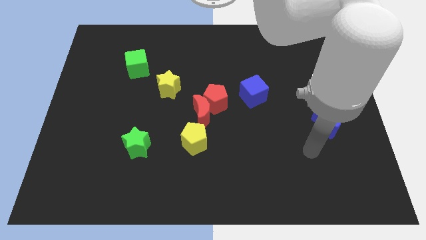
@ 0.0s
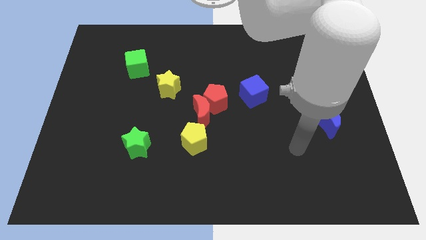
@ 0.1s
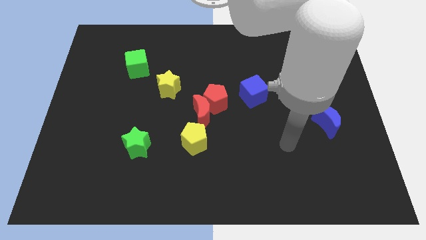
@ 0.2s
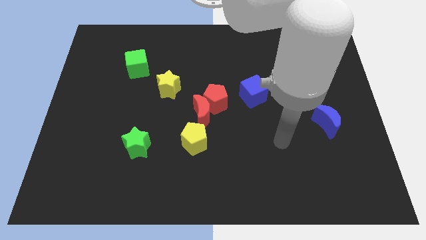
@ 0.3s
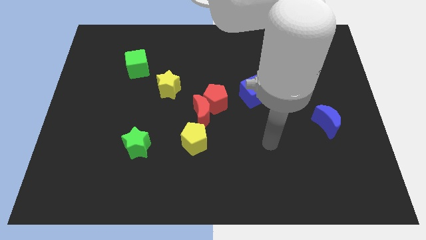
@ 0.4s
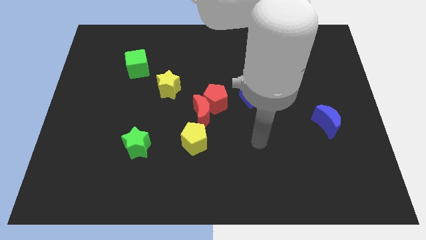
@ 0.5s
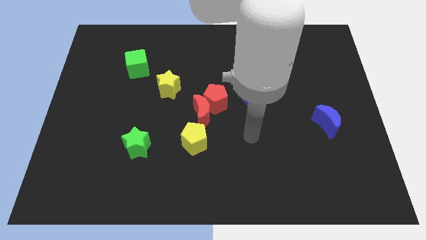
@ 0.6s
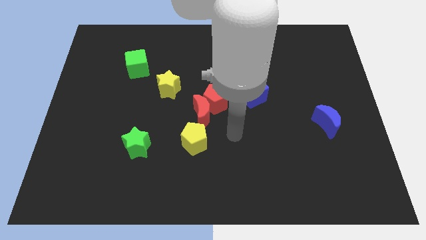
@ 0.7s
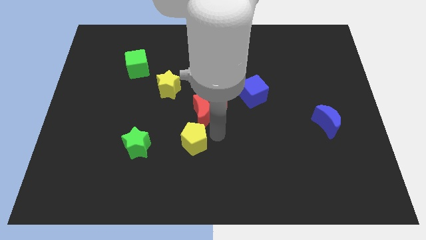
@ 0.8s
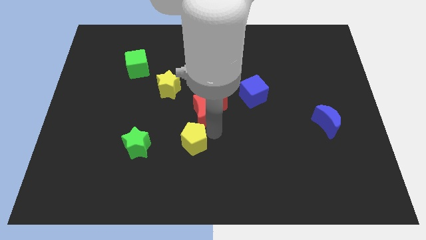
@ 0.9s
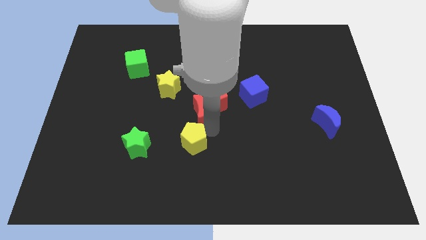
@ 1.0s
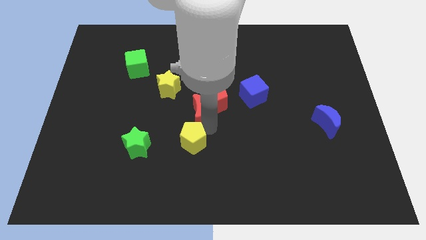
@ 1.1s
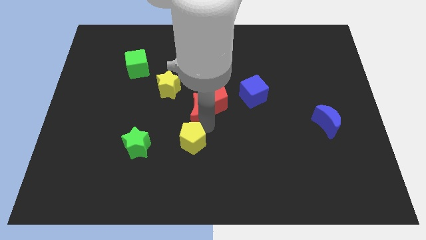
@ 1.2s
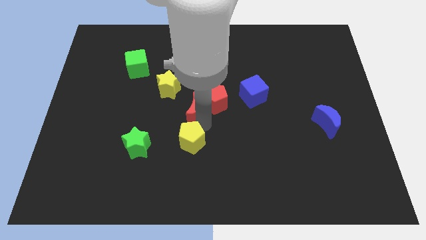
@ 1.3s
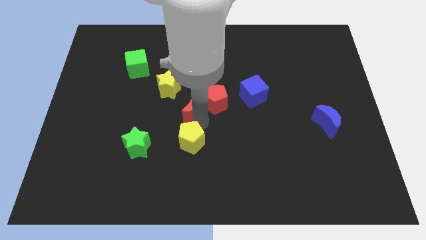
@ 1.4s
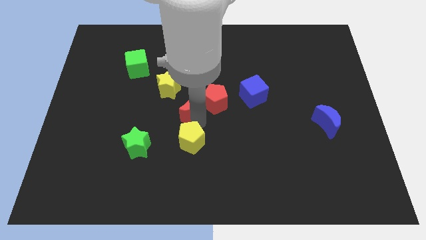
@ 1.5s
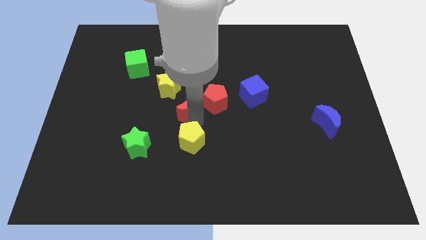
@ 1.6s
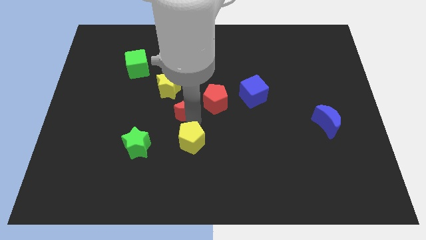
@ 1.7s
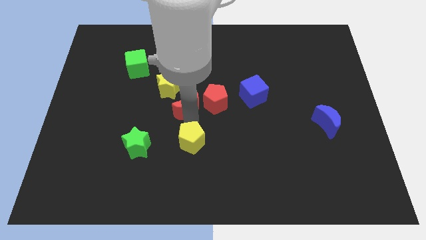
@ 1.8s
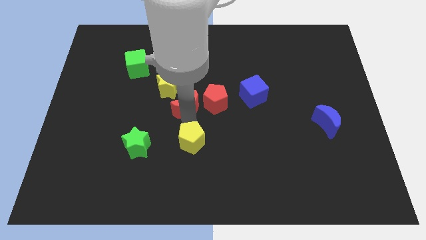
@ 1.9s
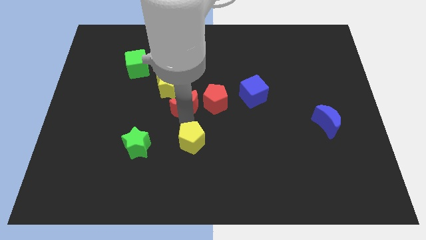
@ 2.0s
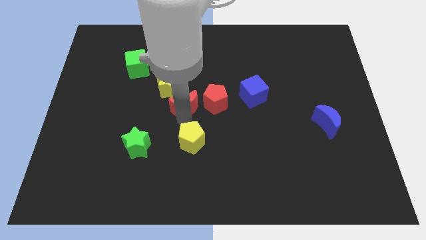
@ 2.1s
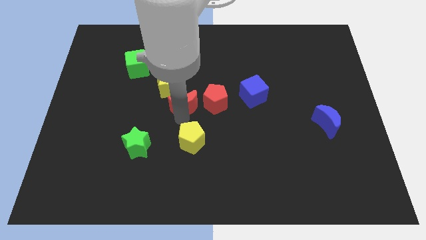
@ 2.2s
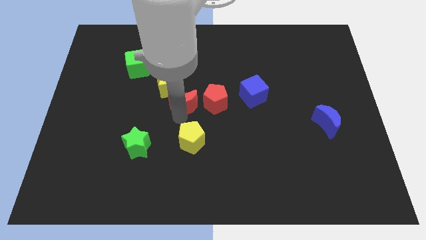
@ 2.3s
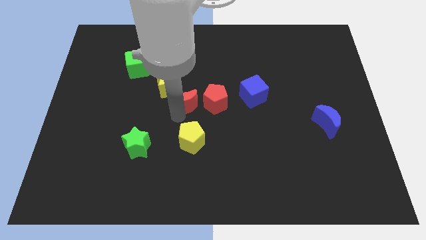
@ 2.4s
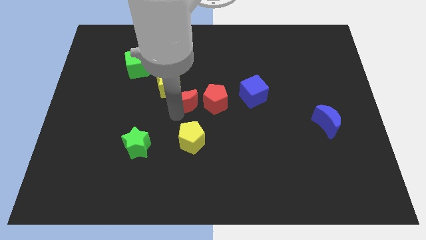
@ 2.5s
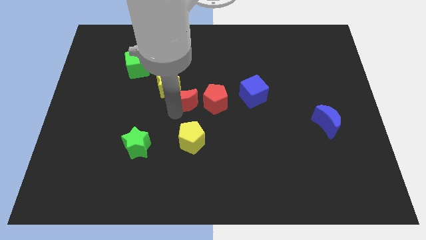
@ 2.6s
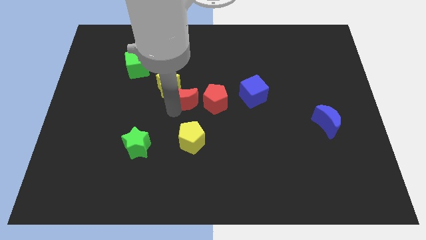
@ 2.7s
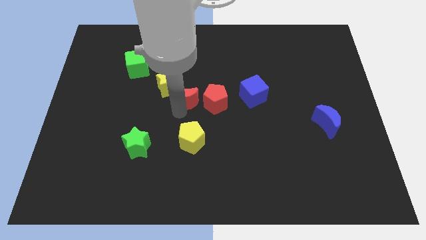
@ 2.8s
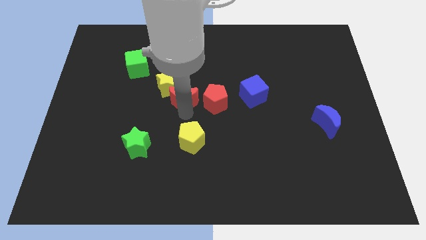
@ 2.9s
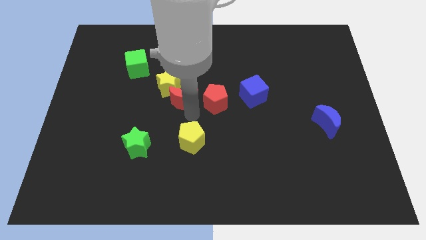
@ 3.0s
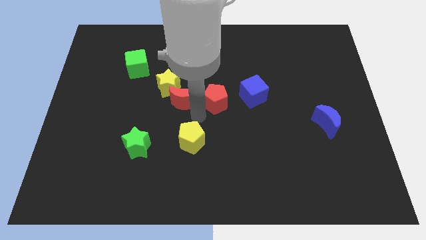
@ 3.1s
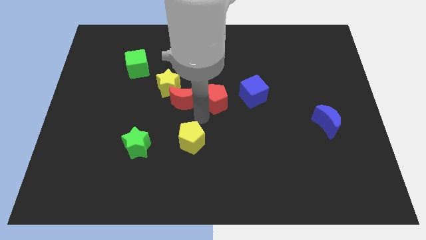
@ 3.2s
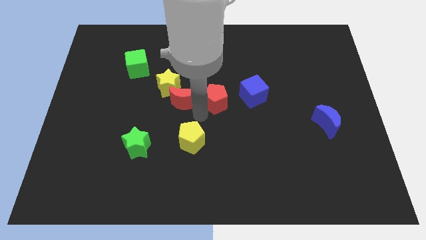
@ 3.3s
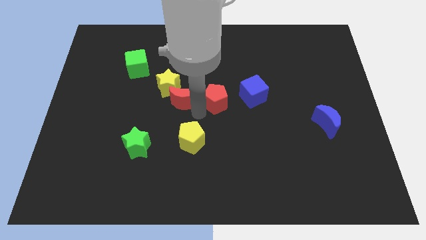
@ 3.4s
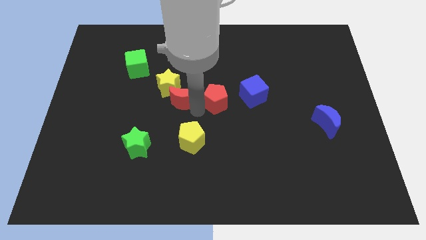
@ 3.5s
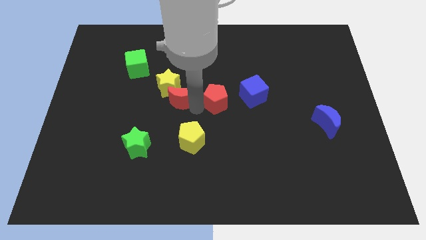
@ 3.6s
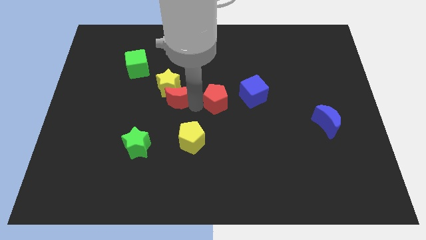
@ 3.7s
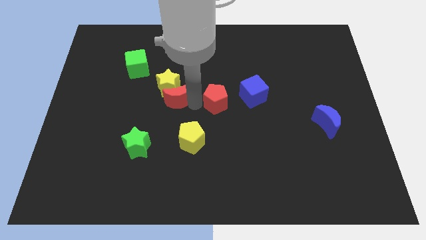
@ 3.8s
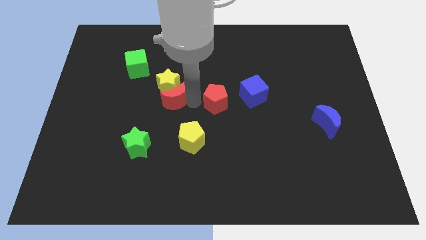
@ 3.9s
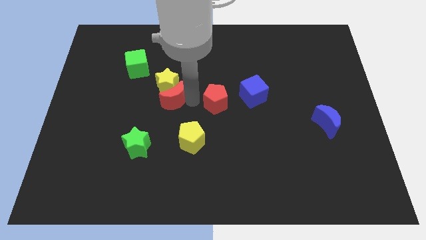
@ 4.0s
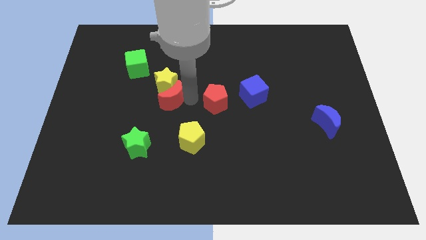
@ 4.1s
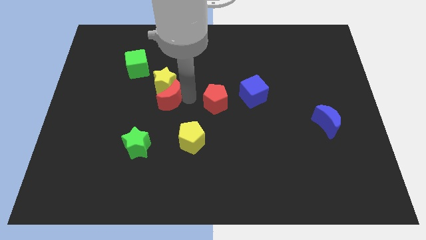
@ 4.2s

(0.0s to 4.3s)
move the red moon away from the red pentagon and yellow pentagon

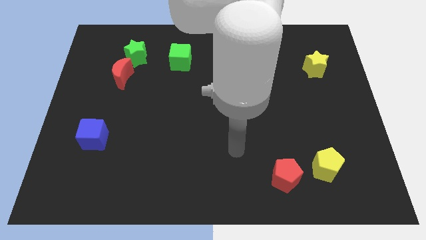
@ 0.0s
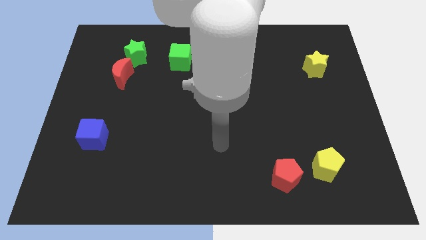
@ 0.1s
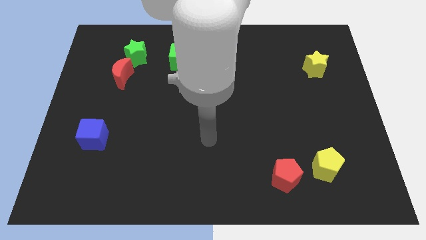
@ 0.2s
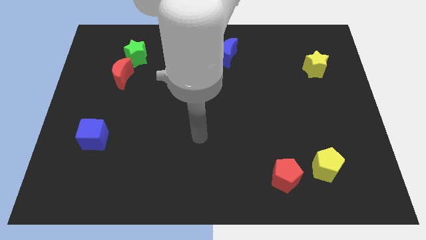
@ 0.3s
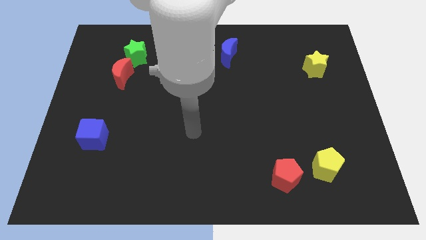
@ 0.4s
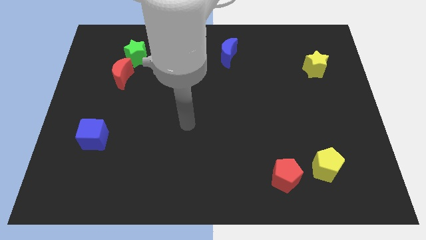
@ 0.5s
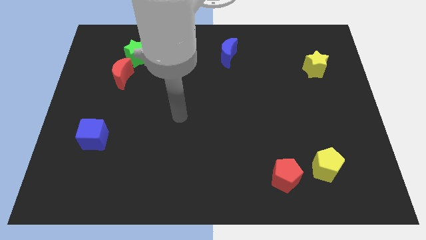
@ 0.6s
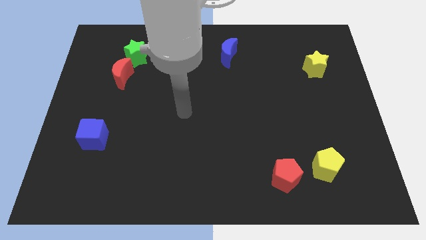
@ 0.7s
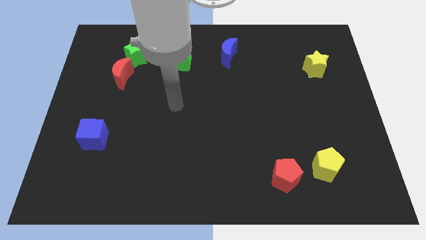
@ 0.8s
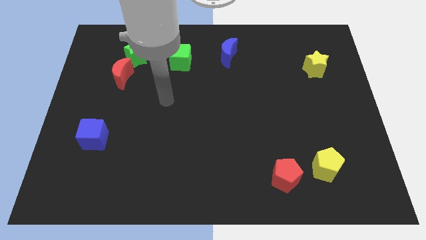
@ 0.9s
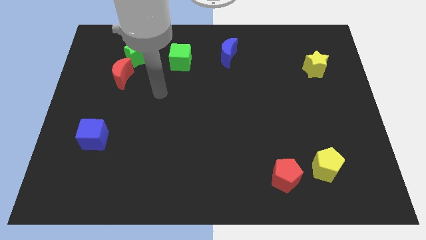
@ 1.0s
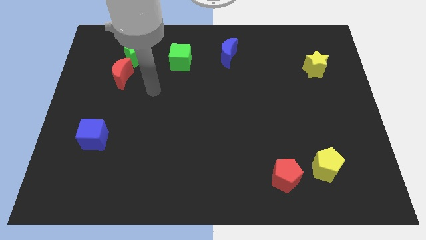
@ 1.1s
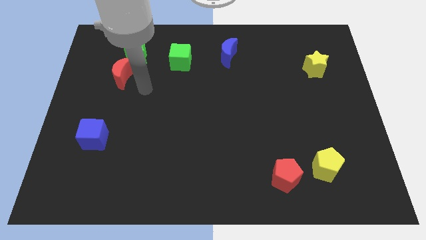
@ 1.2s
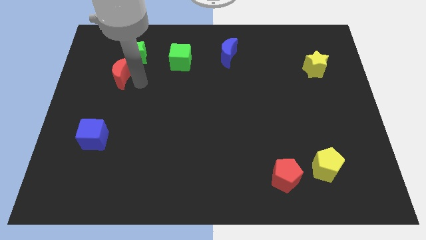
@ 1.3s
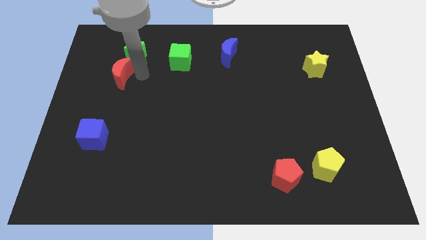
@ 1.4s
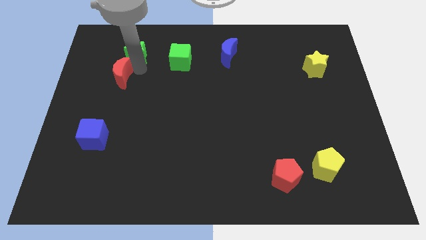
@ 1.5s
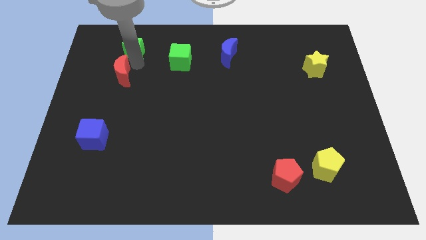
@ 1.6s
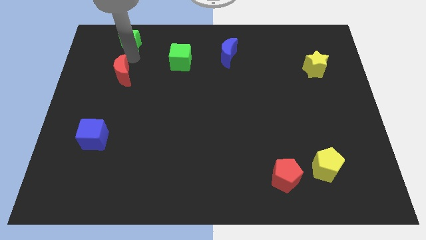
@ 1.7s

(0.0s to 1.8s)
move the red moon away from the green star

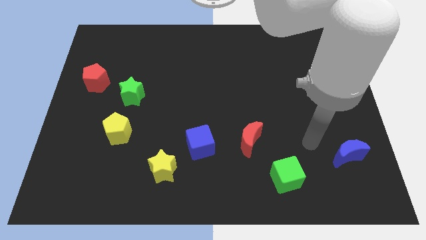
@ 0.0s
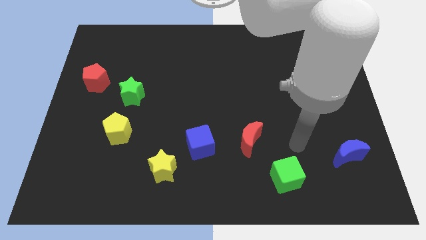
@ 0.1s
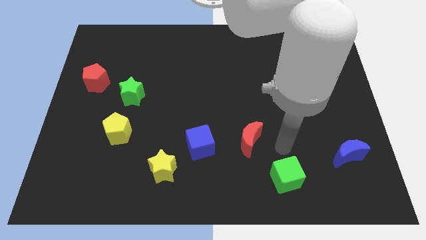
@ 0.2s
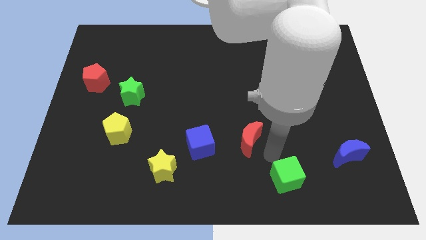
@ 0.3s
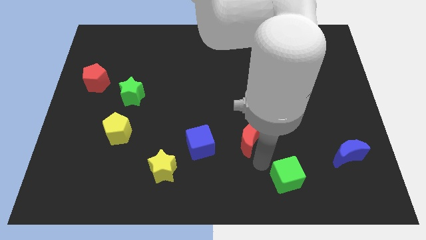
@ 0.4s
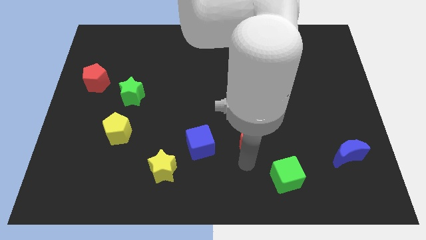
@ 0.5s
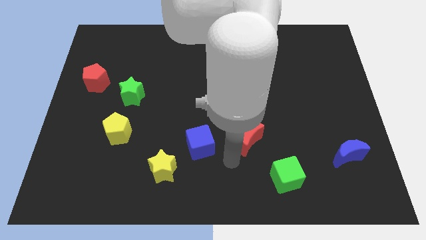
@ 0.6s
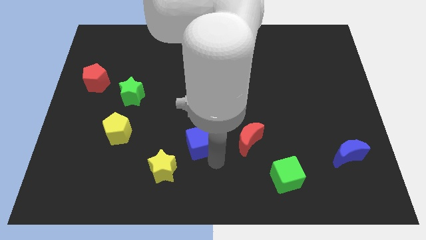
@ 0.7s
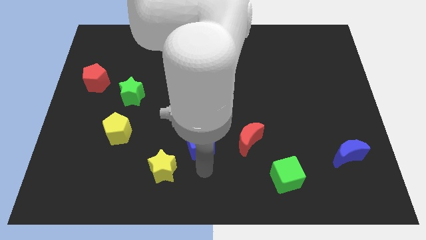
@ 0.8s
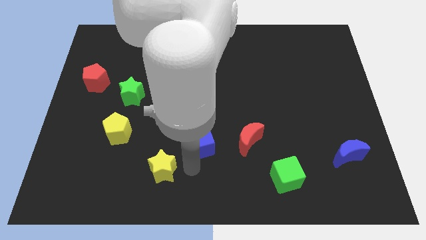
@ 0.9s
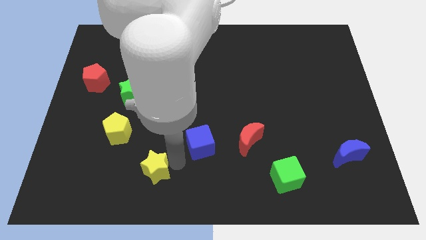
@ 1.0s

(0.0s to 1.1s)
separate the blue cube from the yellow star

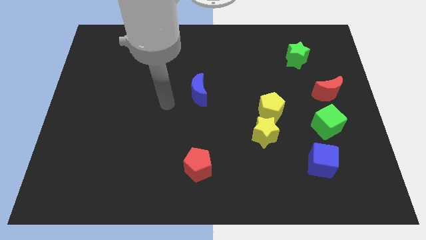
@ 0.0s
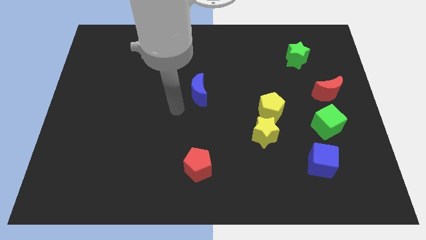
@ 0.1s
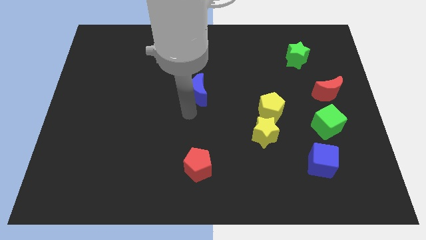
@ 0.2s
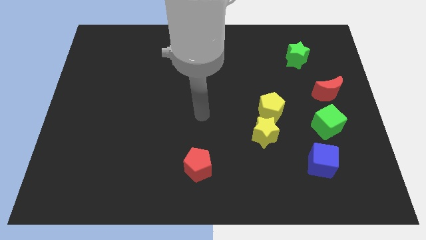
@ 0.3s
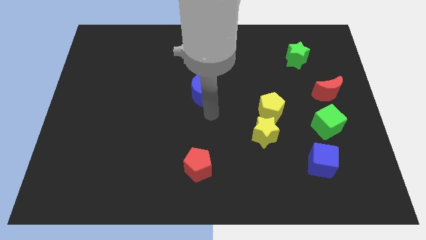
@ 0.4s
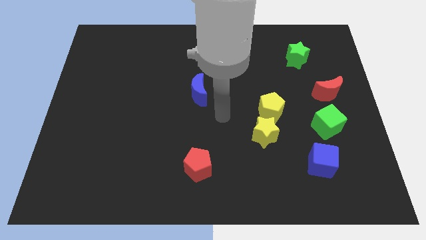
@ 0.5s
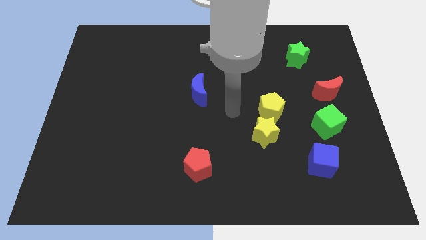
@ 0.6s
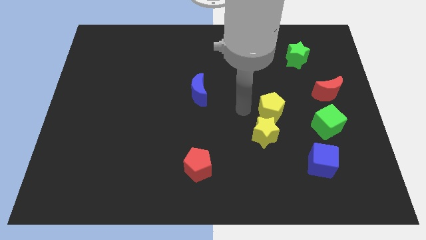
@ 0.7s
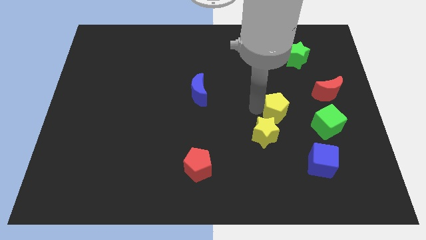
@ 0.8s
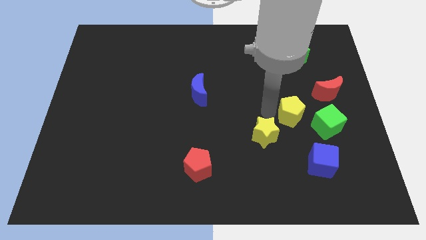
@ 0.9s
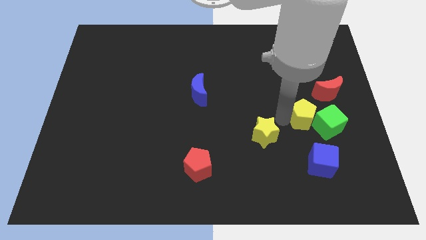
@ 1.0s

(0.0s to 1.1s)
move the yellow star away from the yellow pentagon

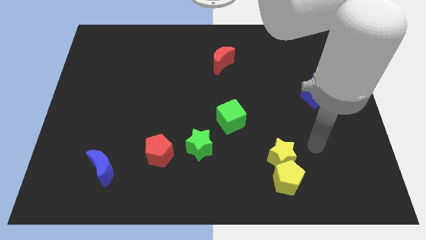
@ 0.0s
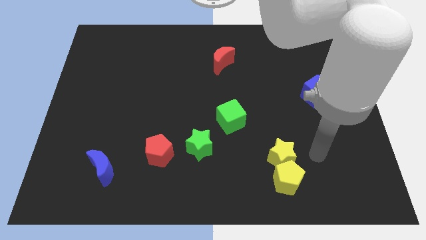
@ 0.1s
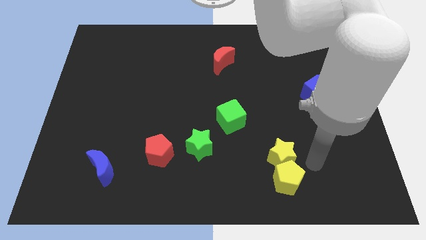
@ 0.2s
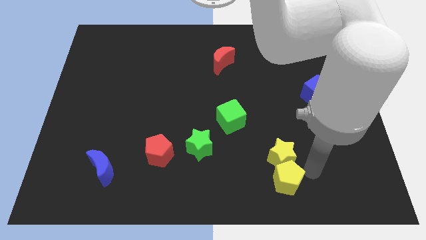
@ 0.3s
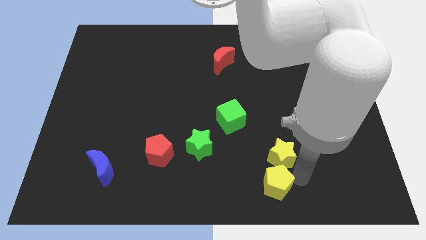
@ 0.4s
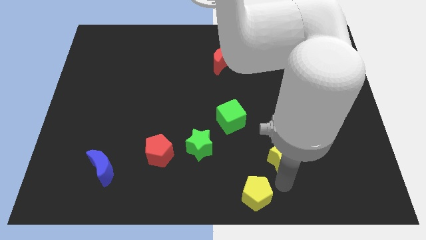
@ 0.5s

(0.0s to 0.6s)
separate the yellow star from the yellow pentagon

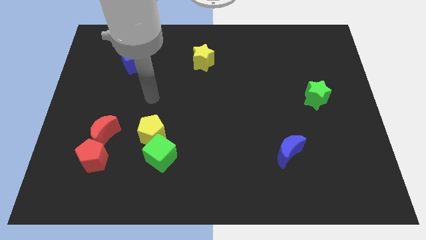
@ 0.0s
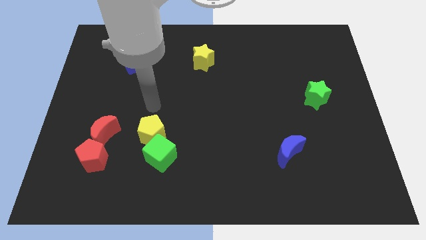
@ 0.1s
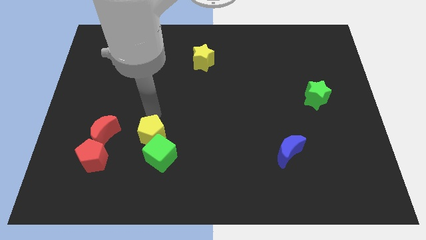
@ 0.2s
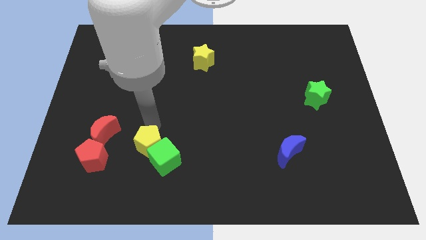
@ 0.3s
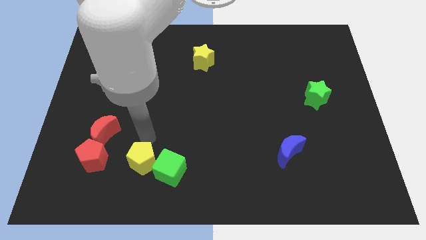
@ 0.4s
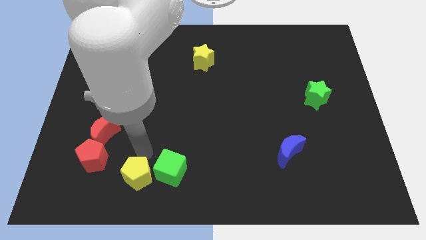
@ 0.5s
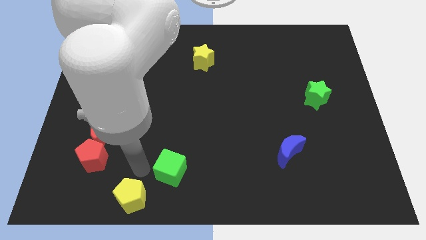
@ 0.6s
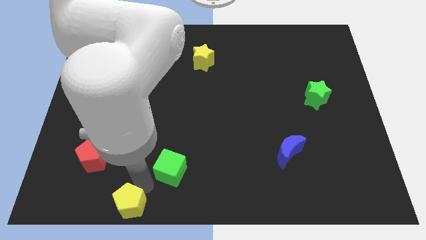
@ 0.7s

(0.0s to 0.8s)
separate the green cube from the yellow pentagon
